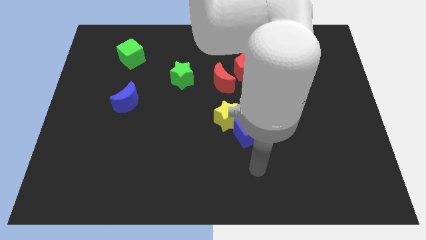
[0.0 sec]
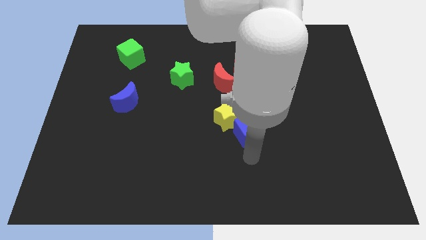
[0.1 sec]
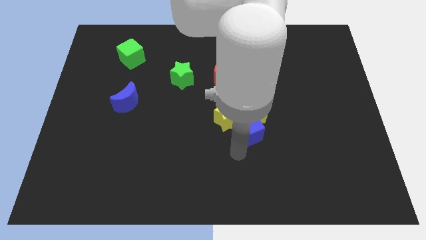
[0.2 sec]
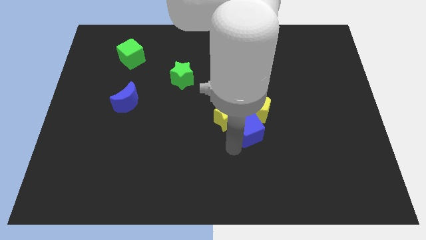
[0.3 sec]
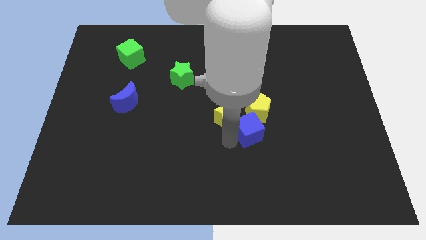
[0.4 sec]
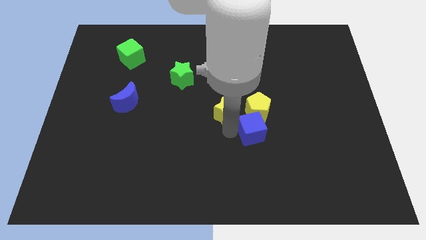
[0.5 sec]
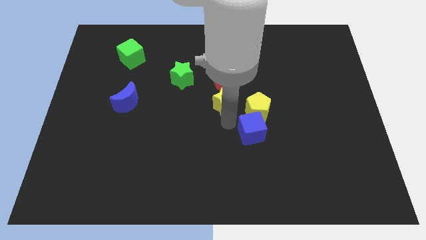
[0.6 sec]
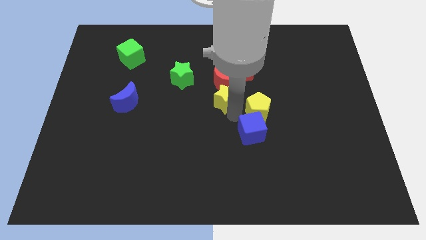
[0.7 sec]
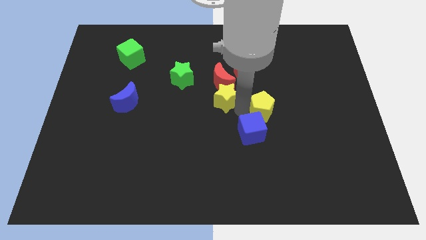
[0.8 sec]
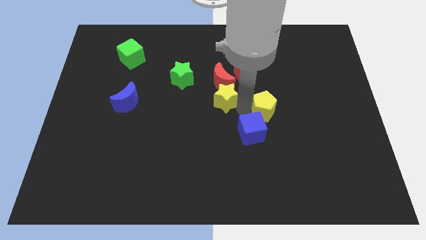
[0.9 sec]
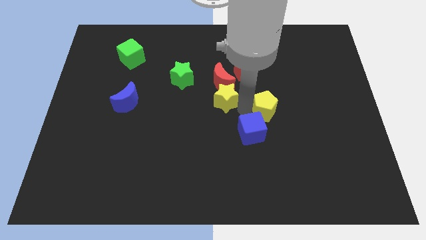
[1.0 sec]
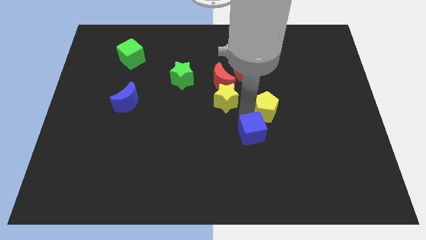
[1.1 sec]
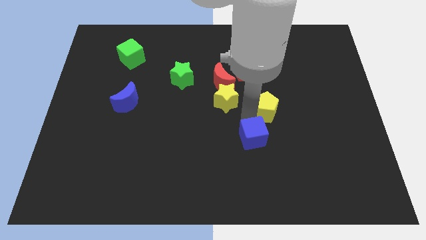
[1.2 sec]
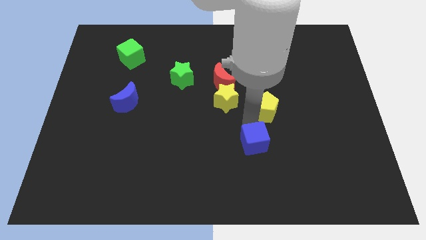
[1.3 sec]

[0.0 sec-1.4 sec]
pull the blue cube apart from the yellow star and yellow pentagon

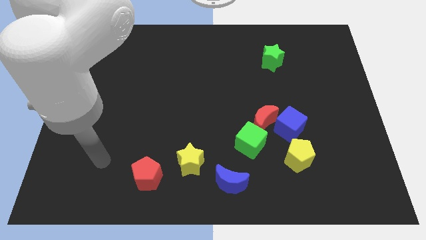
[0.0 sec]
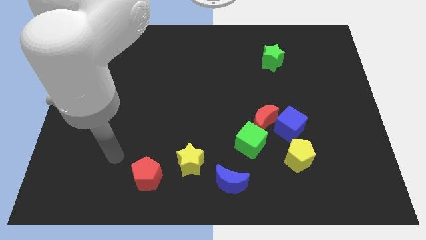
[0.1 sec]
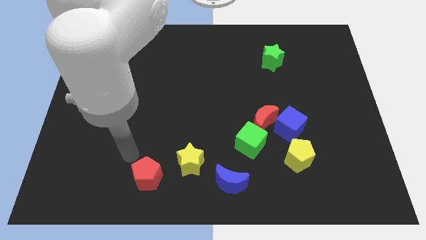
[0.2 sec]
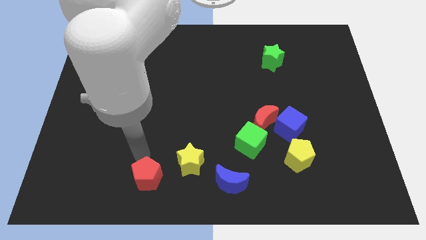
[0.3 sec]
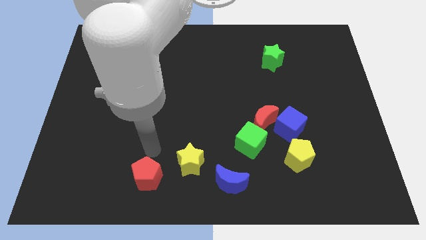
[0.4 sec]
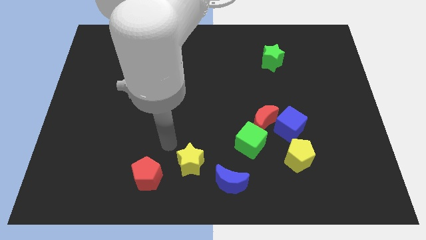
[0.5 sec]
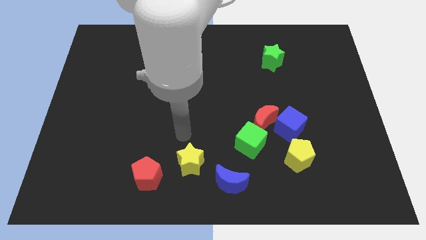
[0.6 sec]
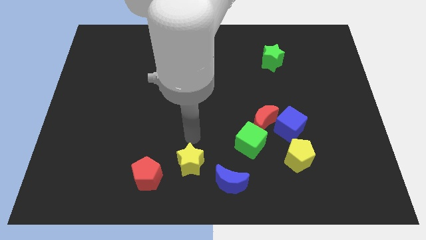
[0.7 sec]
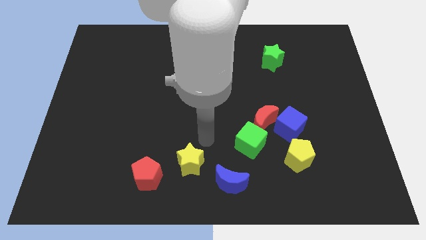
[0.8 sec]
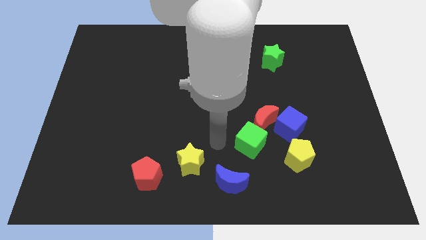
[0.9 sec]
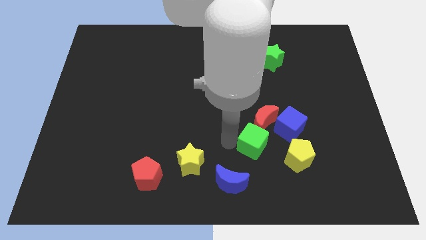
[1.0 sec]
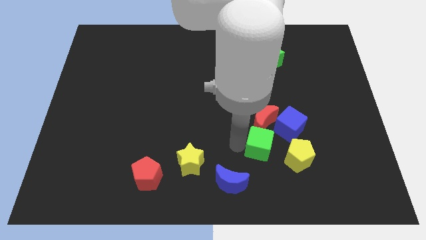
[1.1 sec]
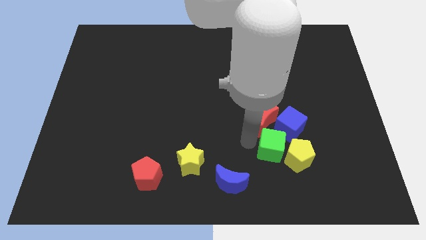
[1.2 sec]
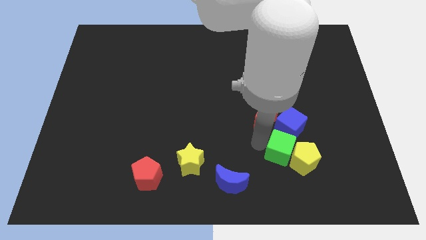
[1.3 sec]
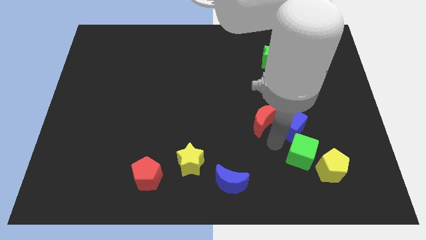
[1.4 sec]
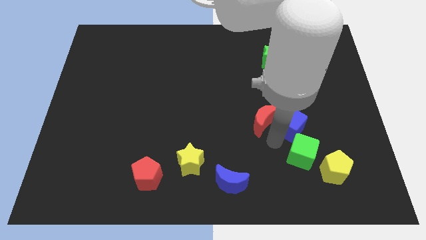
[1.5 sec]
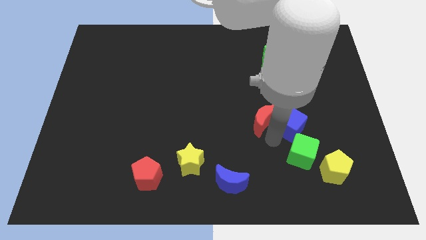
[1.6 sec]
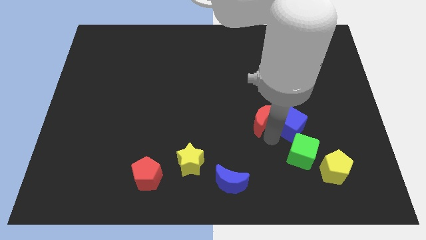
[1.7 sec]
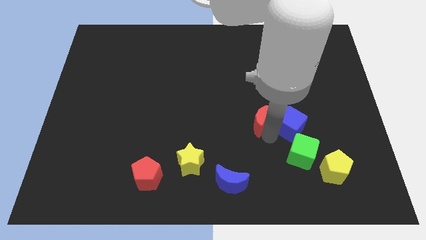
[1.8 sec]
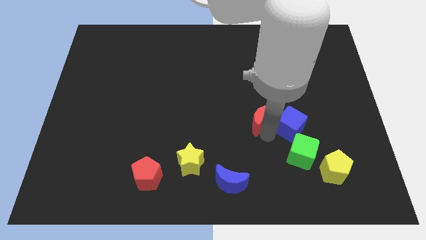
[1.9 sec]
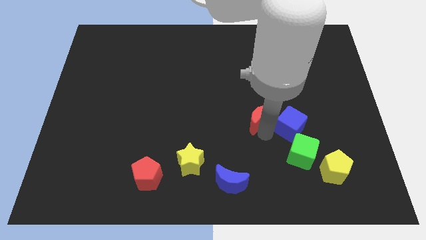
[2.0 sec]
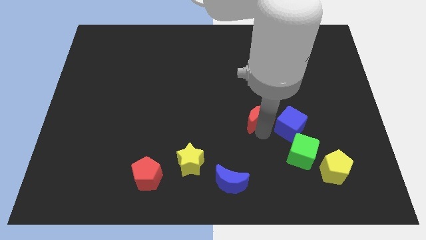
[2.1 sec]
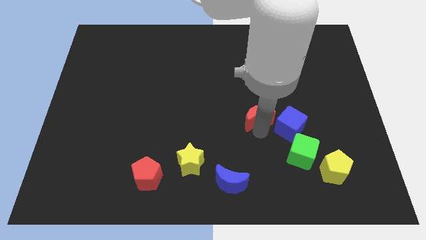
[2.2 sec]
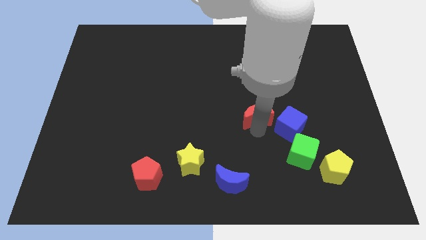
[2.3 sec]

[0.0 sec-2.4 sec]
pull the red moon apart from the blue cube and green cube

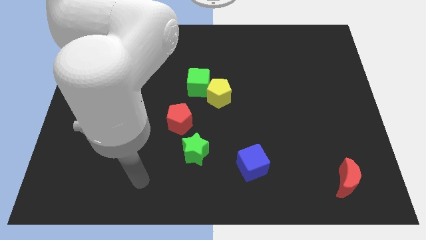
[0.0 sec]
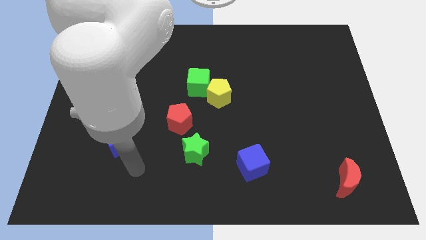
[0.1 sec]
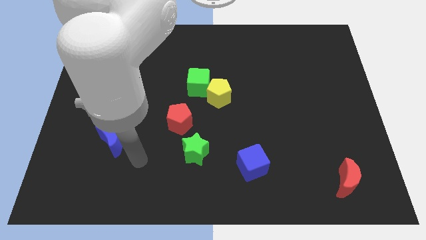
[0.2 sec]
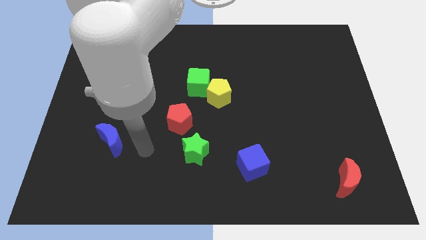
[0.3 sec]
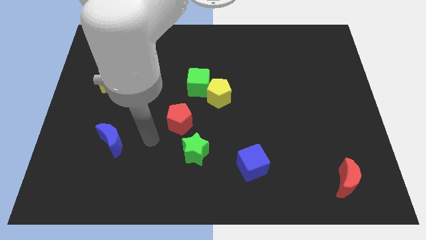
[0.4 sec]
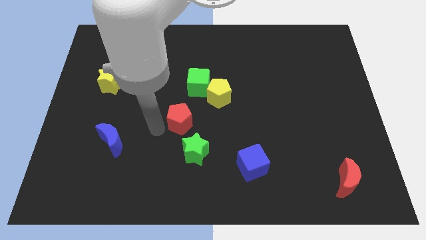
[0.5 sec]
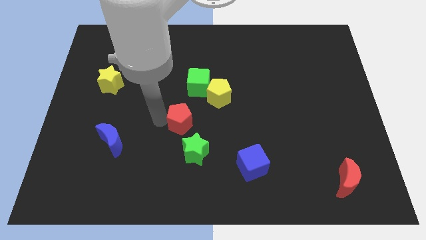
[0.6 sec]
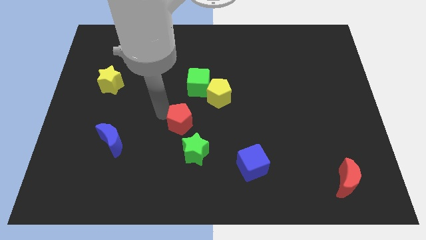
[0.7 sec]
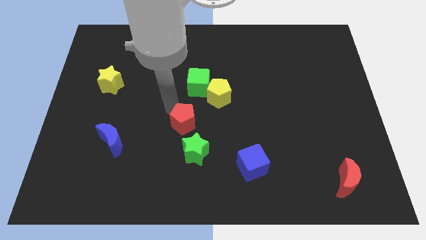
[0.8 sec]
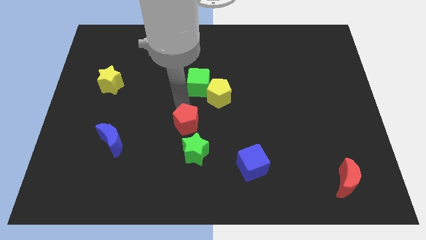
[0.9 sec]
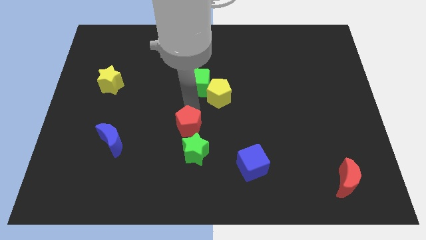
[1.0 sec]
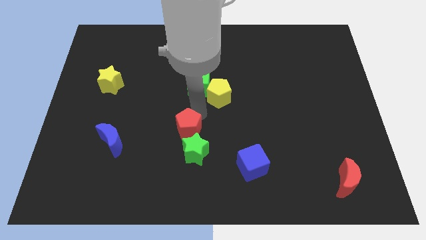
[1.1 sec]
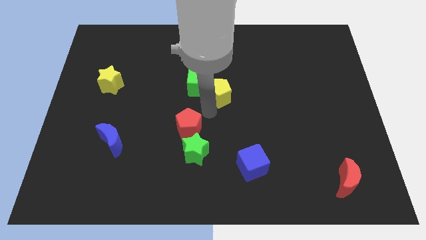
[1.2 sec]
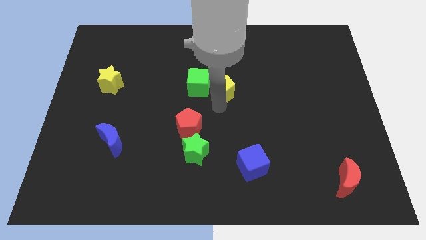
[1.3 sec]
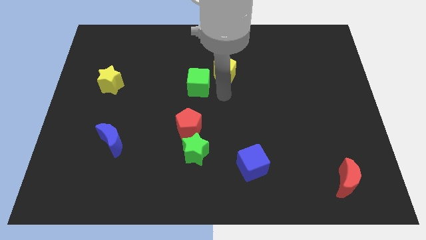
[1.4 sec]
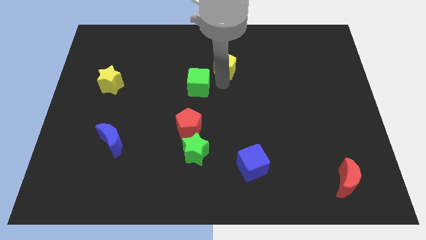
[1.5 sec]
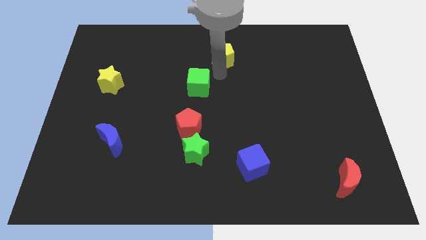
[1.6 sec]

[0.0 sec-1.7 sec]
pull the green cube apart from the yellow pentagon

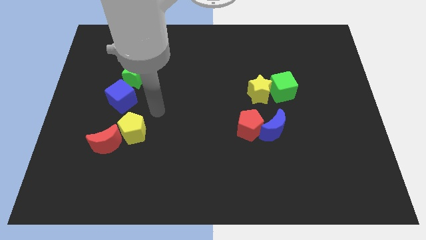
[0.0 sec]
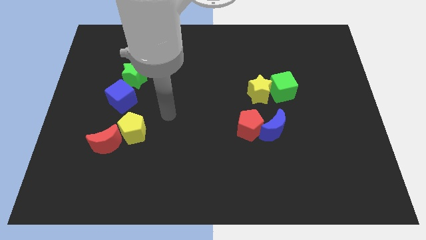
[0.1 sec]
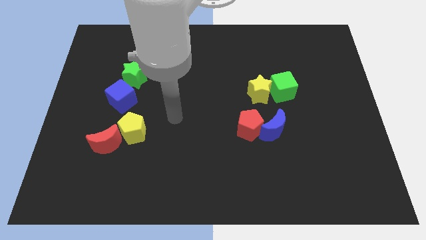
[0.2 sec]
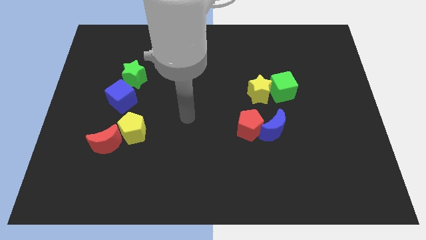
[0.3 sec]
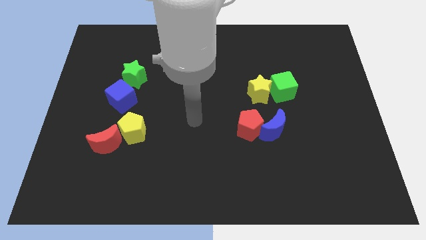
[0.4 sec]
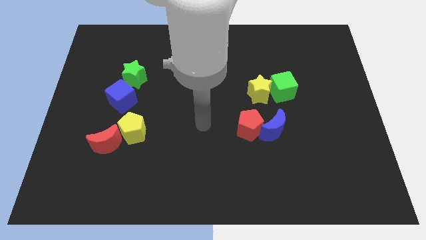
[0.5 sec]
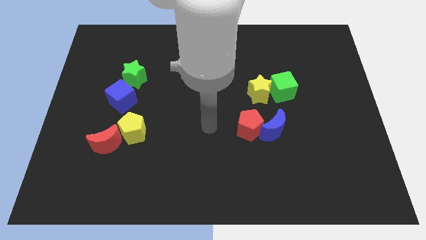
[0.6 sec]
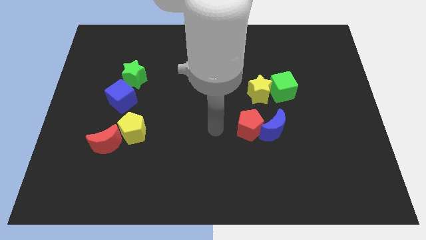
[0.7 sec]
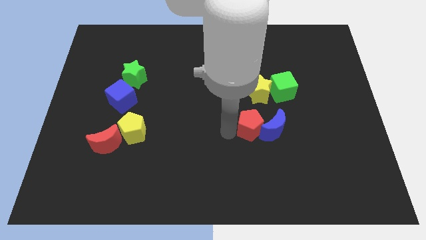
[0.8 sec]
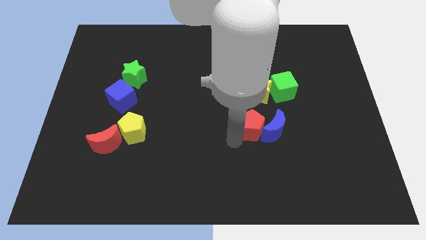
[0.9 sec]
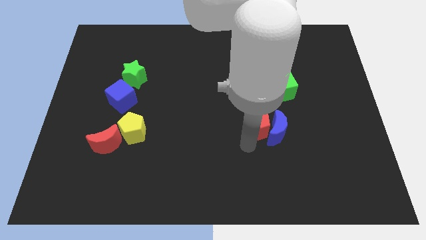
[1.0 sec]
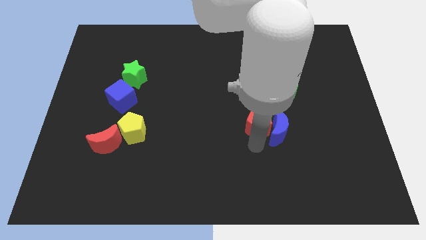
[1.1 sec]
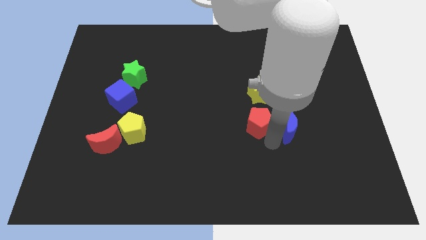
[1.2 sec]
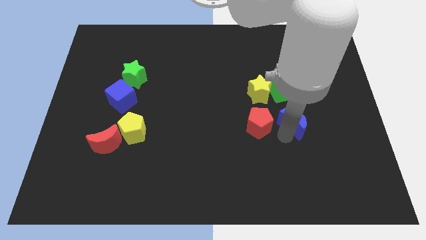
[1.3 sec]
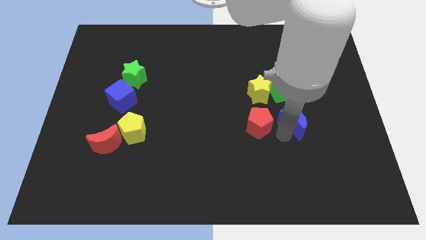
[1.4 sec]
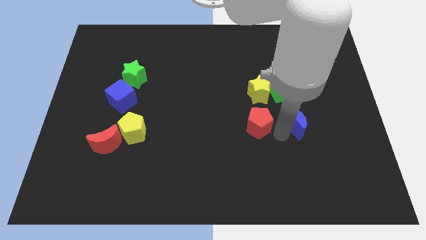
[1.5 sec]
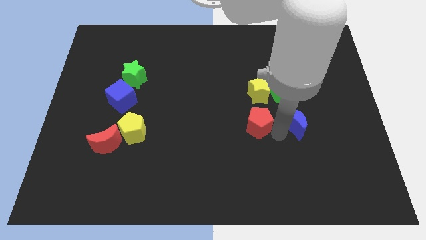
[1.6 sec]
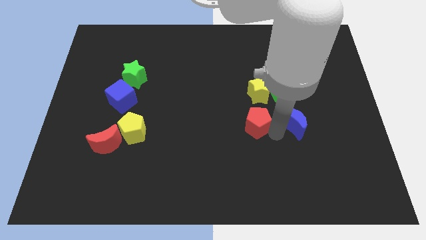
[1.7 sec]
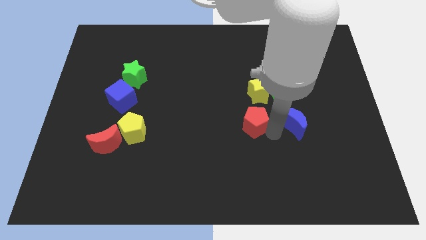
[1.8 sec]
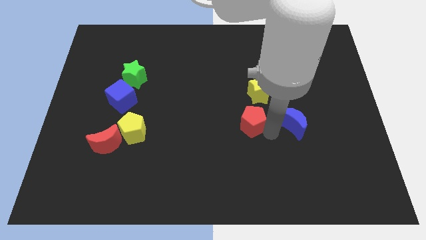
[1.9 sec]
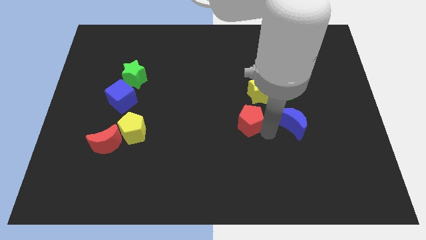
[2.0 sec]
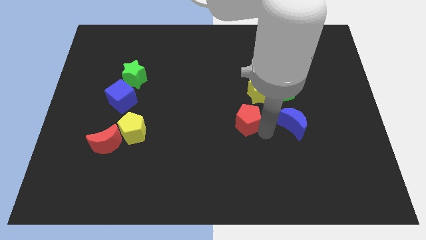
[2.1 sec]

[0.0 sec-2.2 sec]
separate the red pentagon from the blue moon

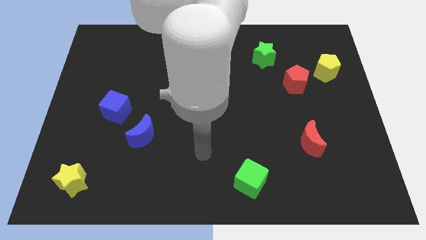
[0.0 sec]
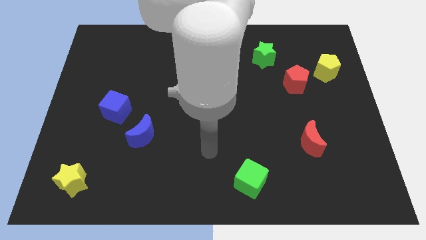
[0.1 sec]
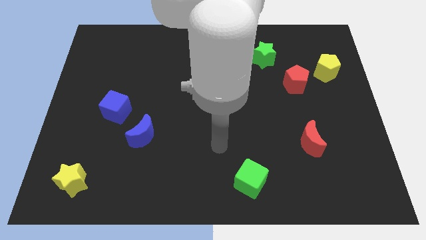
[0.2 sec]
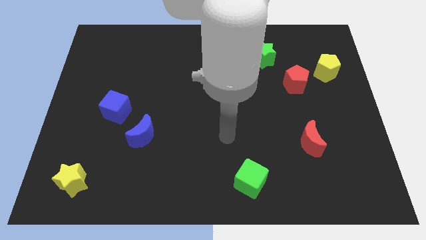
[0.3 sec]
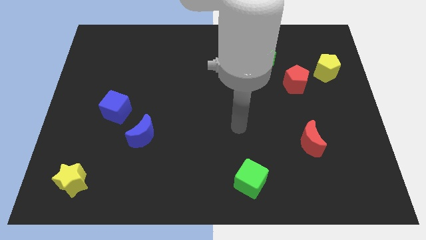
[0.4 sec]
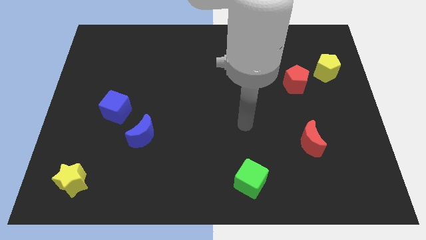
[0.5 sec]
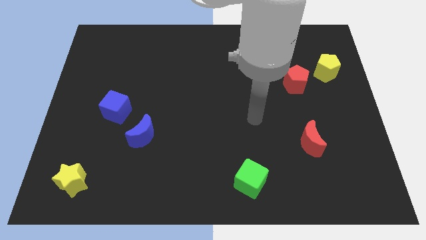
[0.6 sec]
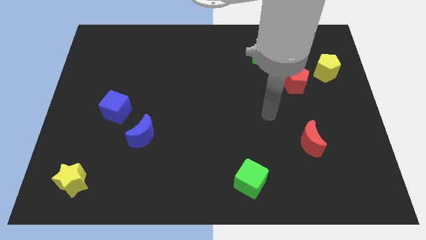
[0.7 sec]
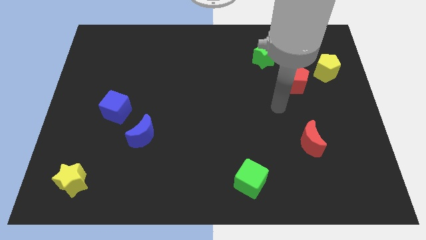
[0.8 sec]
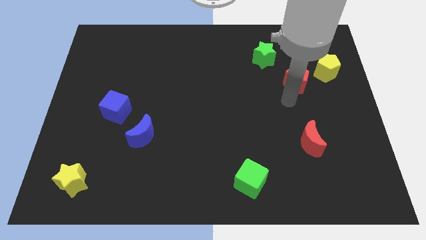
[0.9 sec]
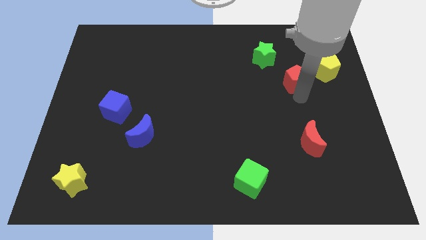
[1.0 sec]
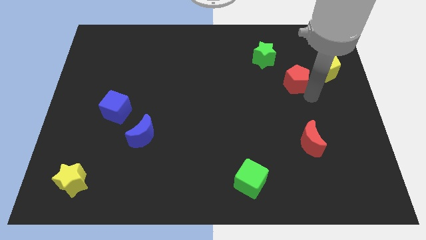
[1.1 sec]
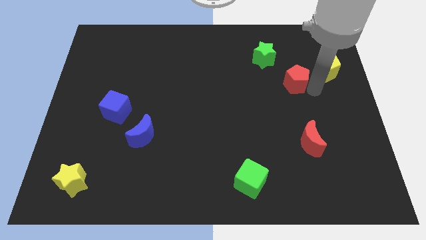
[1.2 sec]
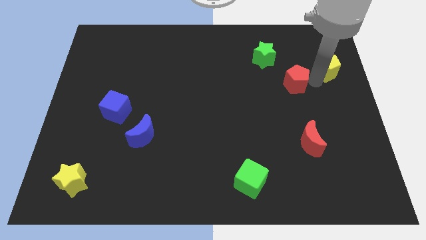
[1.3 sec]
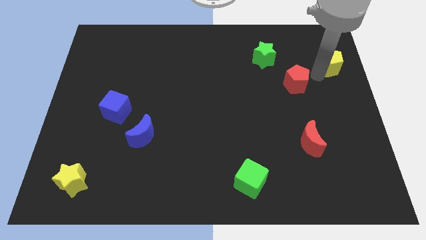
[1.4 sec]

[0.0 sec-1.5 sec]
pull the red pentagon apart from the yellow pentagon
